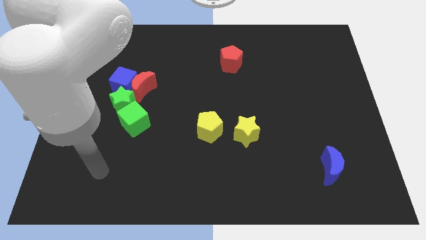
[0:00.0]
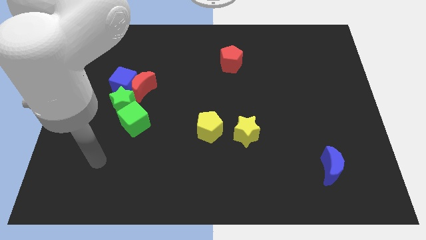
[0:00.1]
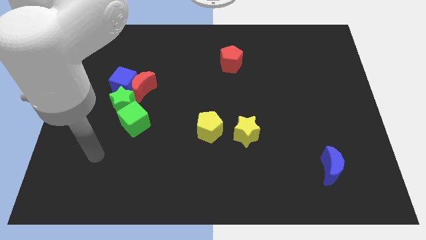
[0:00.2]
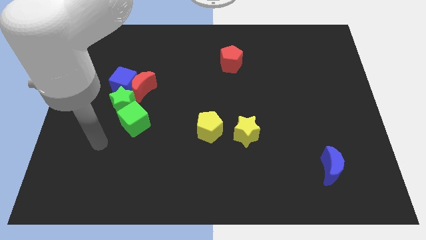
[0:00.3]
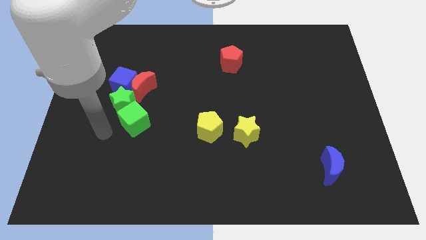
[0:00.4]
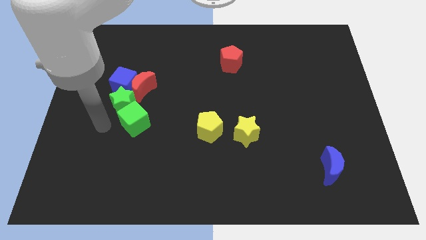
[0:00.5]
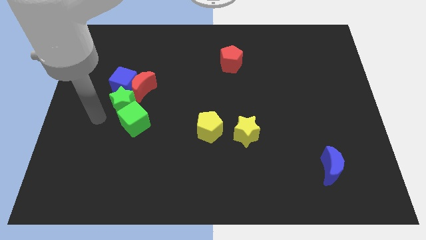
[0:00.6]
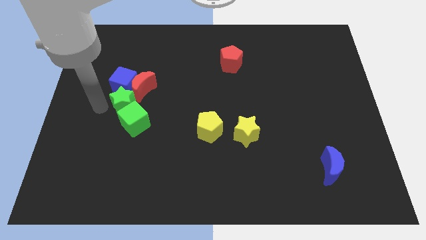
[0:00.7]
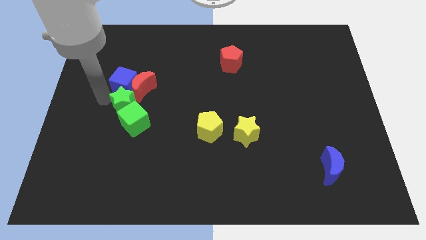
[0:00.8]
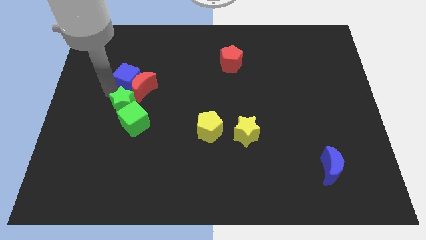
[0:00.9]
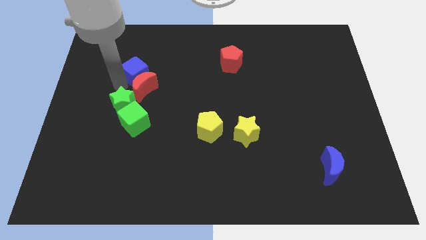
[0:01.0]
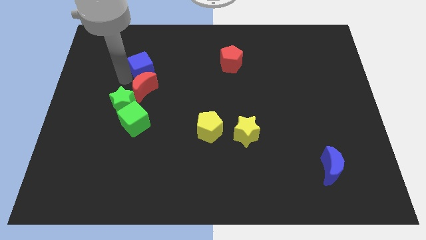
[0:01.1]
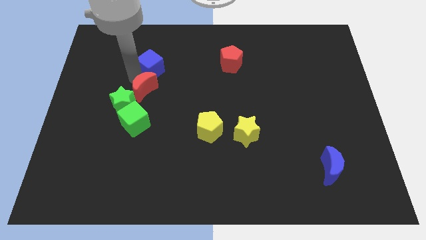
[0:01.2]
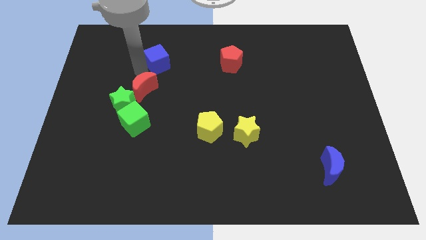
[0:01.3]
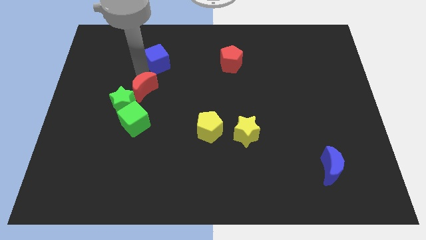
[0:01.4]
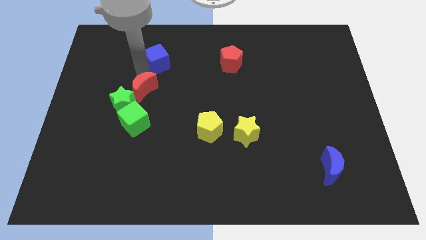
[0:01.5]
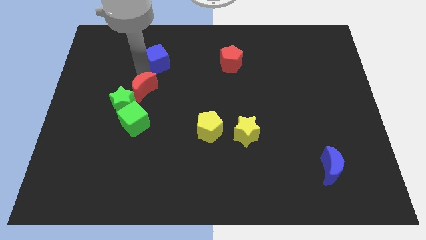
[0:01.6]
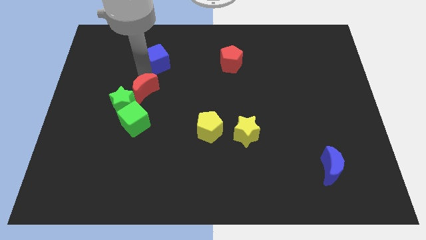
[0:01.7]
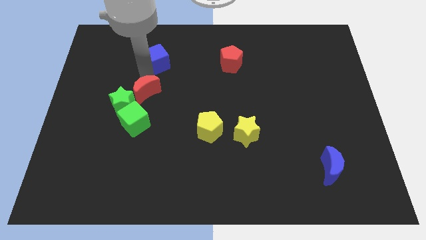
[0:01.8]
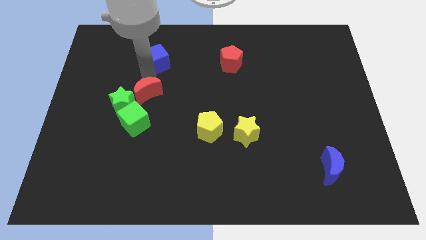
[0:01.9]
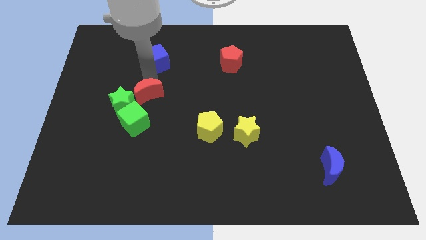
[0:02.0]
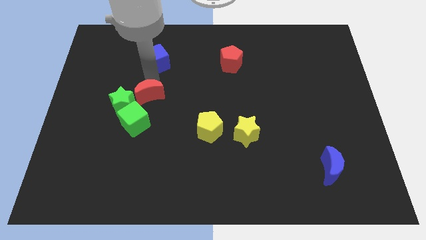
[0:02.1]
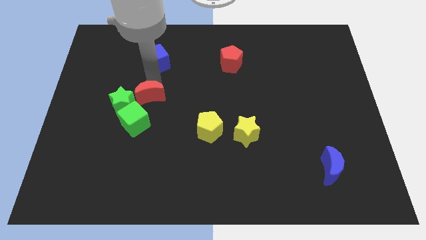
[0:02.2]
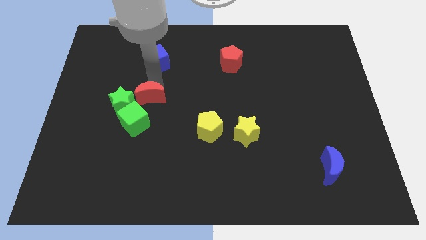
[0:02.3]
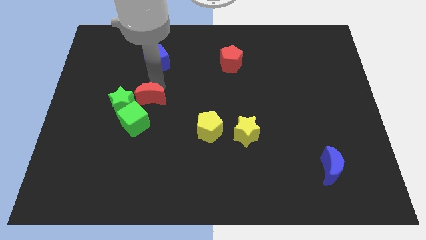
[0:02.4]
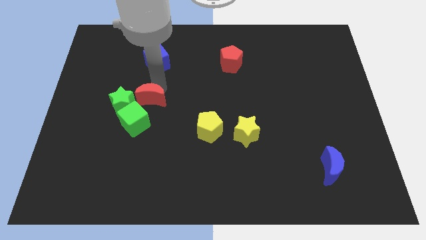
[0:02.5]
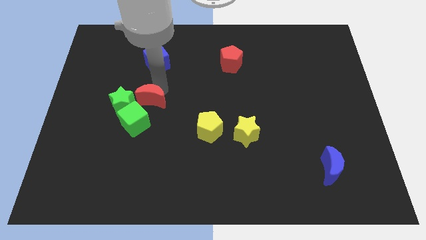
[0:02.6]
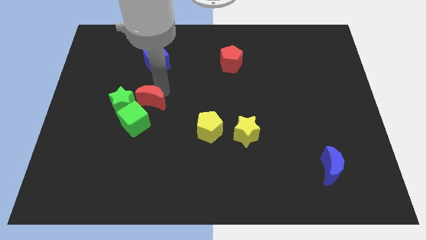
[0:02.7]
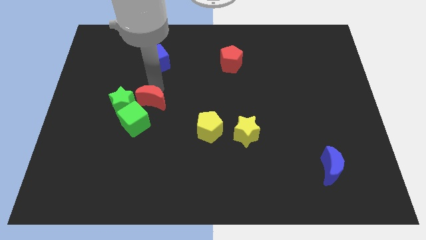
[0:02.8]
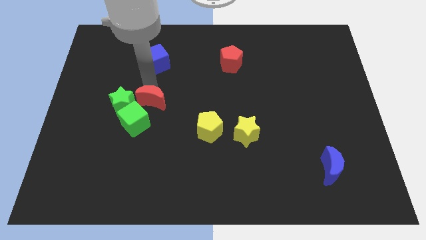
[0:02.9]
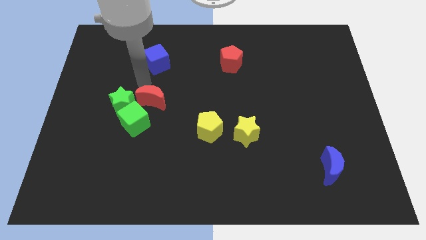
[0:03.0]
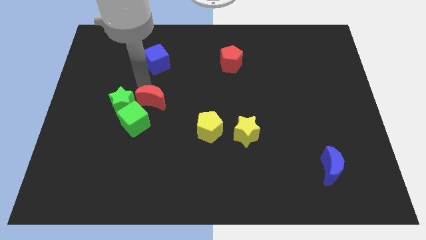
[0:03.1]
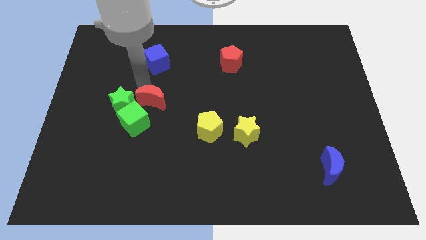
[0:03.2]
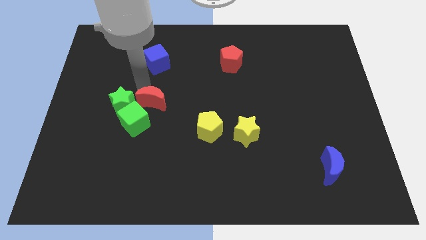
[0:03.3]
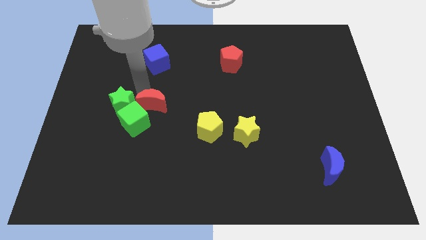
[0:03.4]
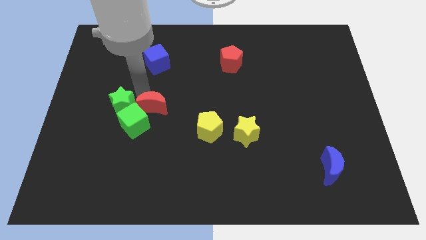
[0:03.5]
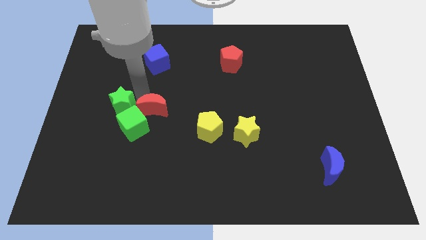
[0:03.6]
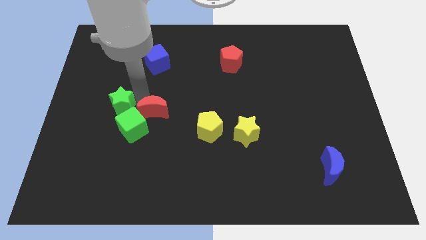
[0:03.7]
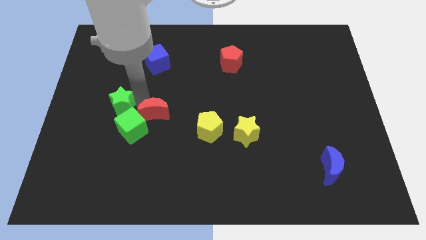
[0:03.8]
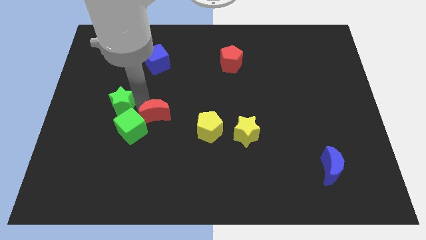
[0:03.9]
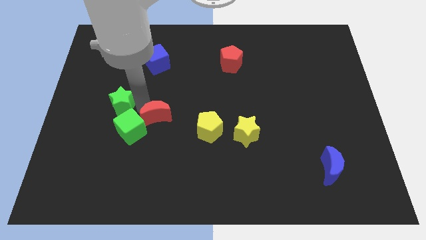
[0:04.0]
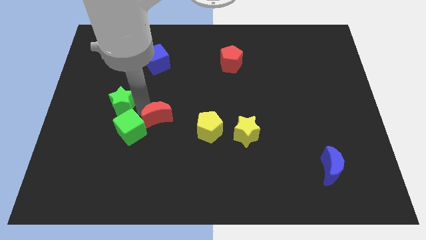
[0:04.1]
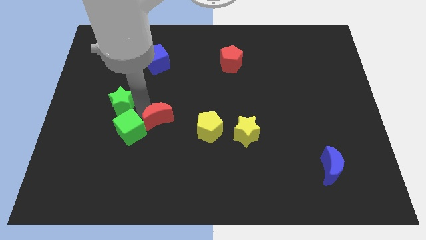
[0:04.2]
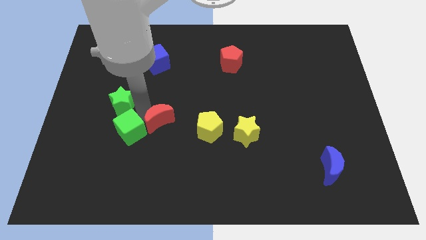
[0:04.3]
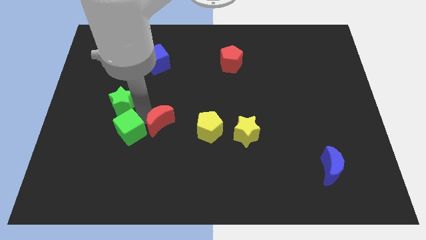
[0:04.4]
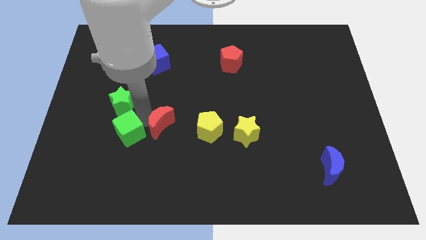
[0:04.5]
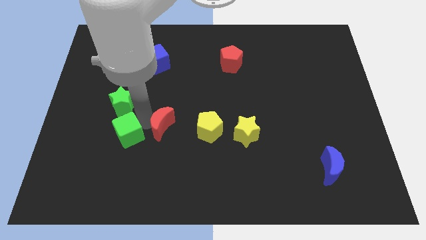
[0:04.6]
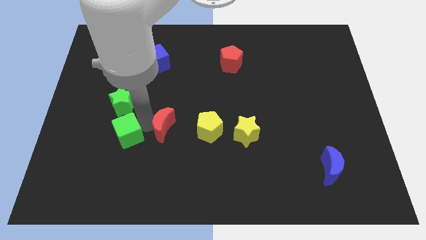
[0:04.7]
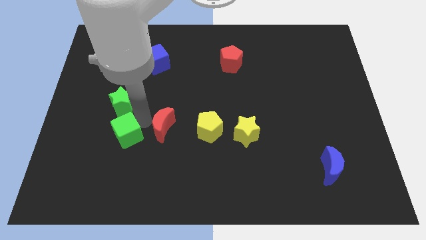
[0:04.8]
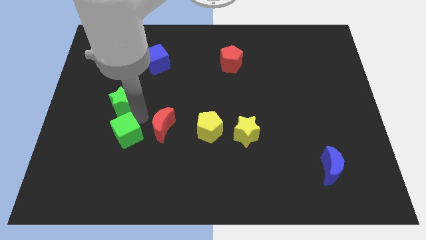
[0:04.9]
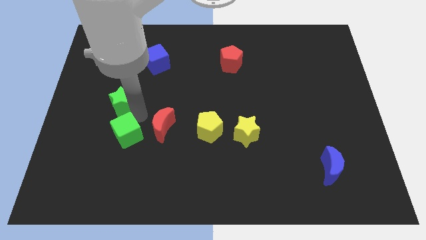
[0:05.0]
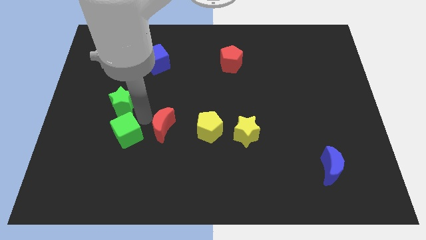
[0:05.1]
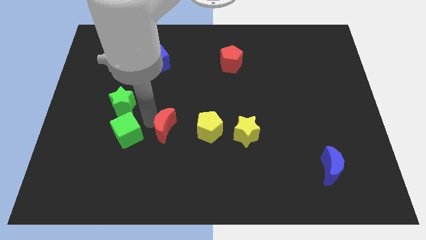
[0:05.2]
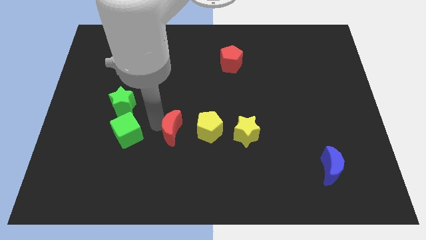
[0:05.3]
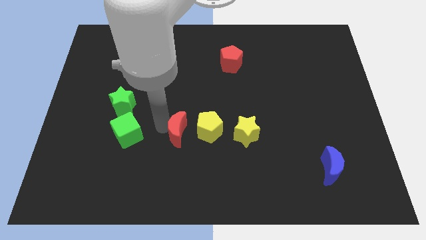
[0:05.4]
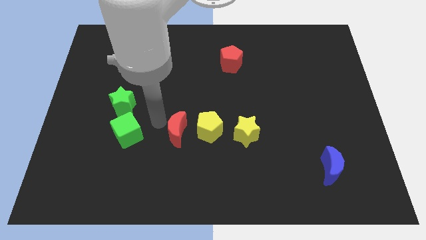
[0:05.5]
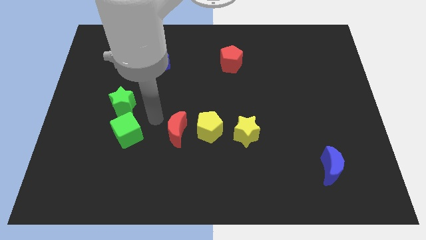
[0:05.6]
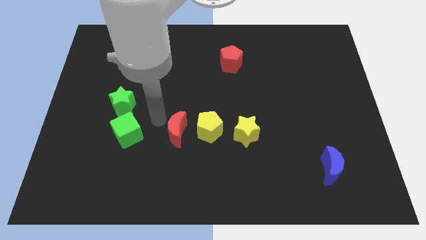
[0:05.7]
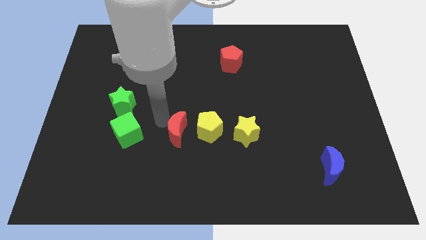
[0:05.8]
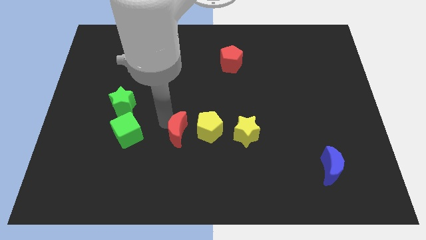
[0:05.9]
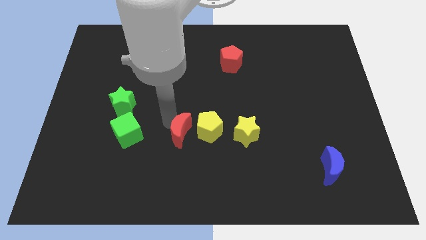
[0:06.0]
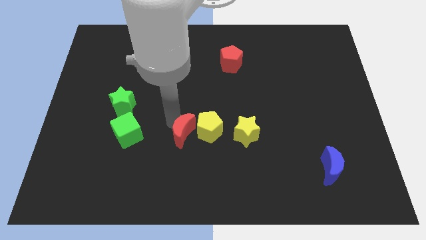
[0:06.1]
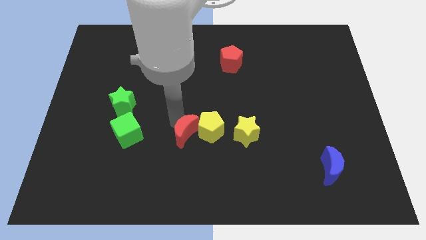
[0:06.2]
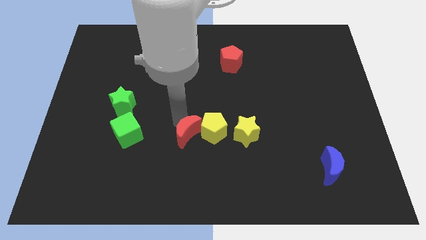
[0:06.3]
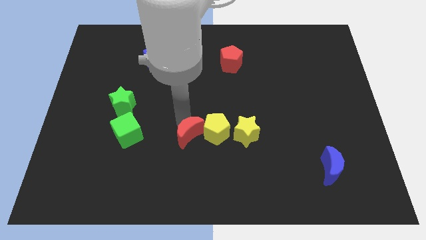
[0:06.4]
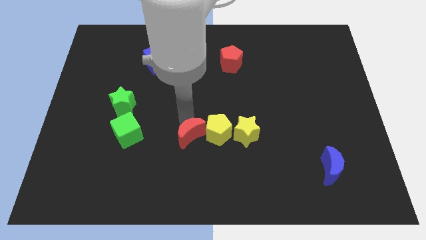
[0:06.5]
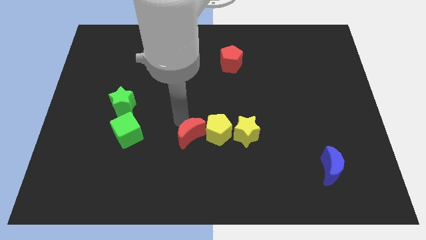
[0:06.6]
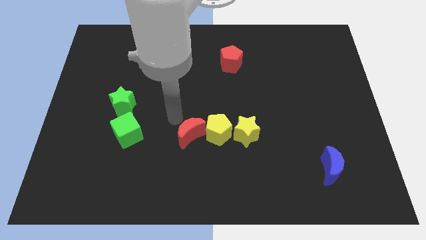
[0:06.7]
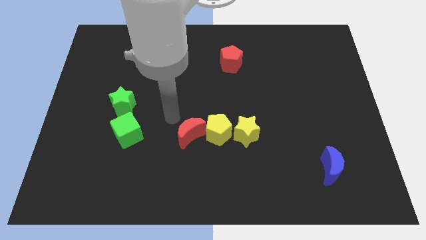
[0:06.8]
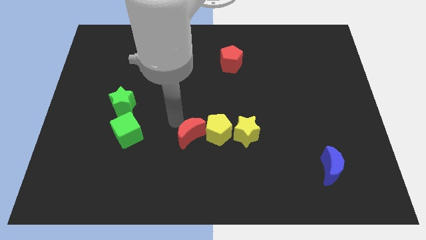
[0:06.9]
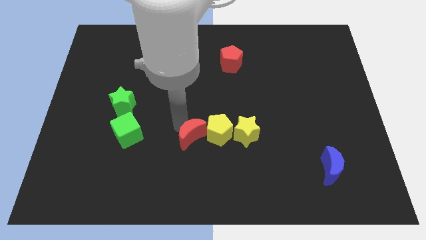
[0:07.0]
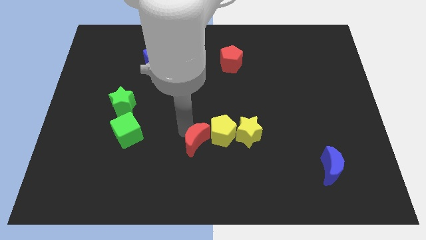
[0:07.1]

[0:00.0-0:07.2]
push the red moon down and right diagonally

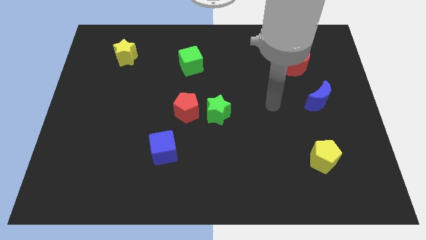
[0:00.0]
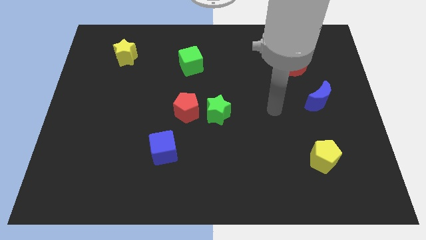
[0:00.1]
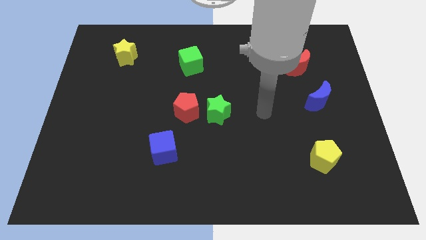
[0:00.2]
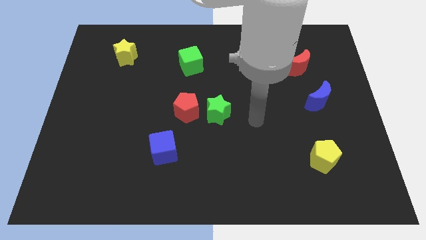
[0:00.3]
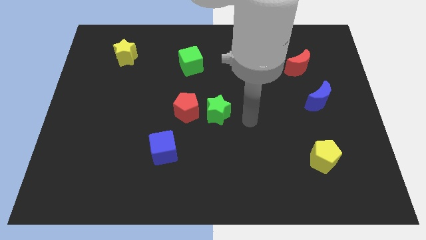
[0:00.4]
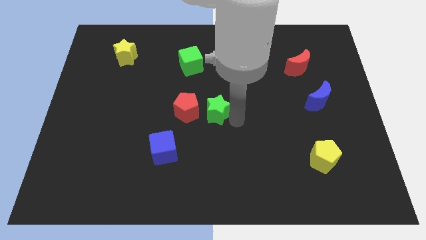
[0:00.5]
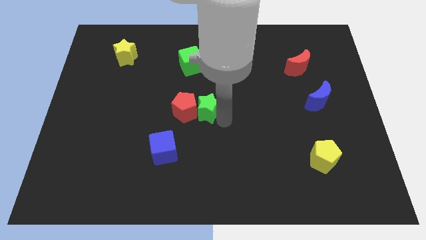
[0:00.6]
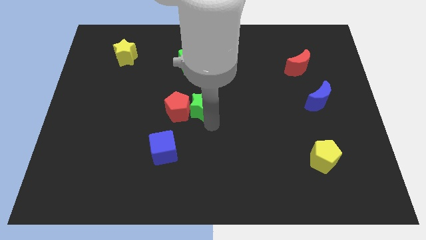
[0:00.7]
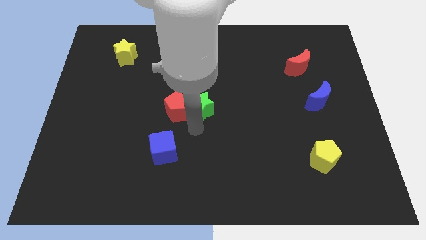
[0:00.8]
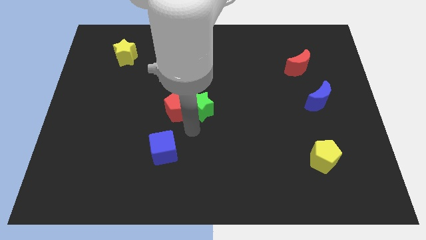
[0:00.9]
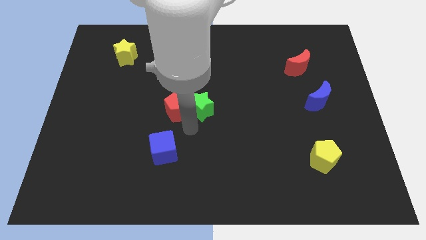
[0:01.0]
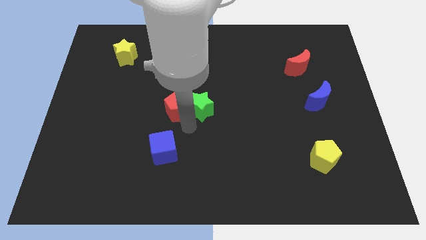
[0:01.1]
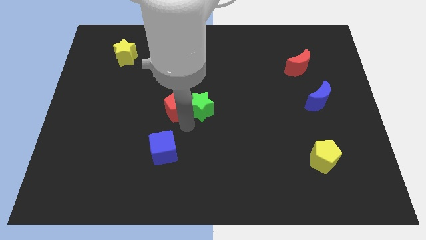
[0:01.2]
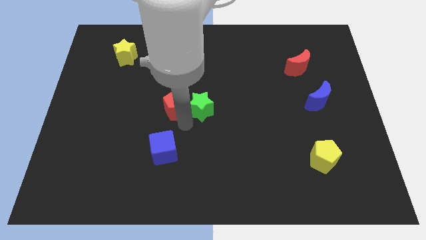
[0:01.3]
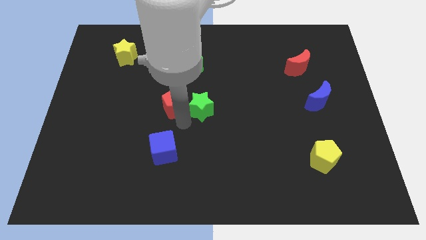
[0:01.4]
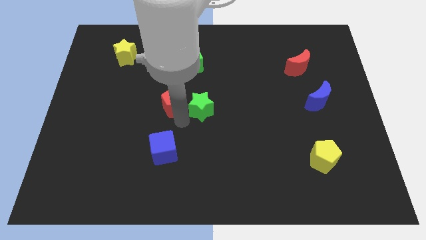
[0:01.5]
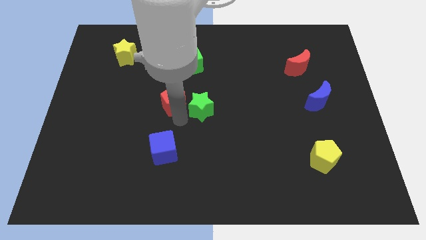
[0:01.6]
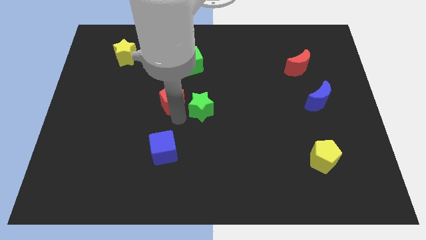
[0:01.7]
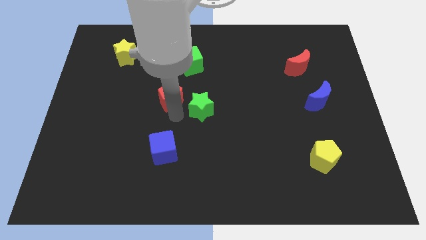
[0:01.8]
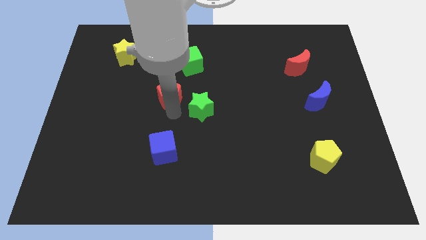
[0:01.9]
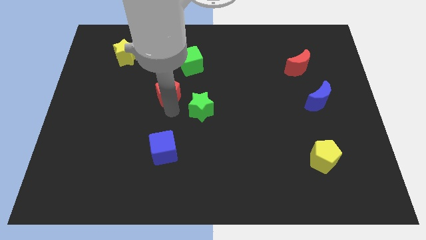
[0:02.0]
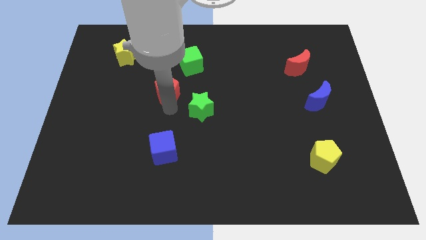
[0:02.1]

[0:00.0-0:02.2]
slide the red pentagon up and to the left diagonally somewhat
